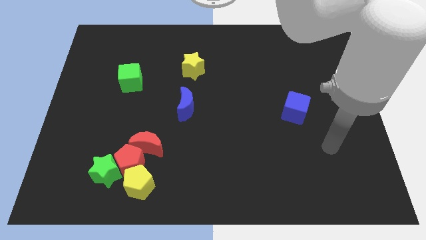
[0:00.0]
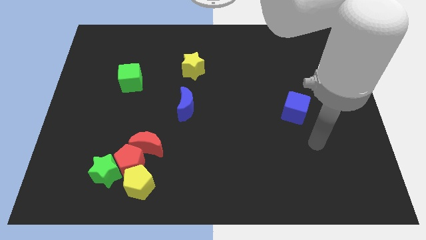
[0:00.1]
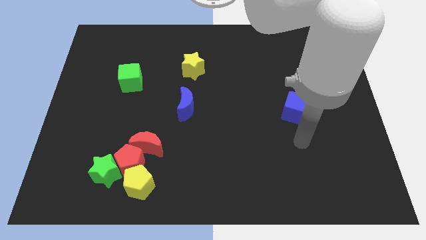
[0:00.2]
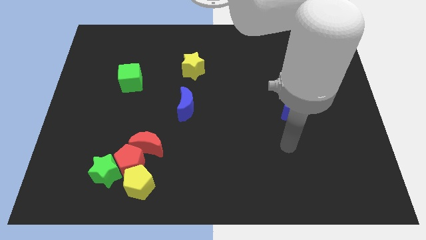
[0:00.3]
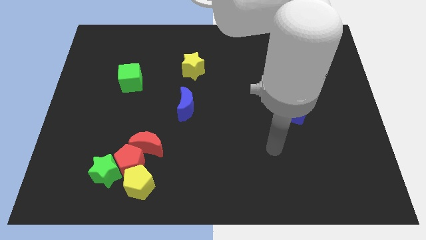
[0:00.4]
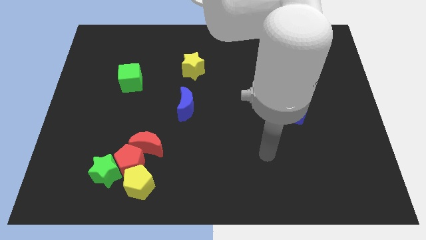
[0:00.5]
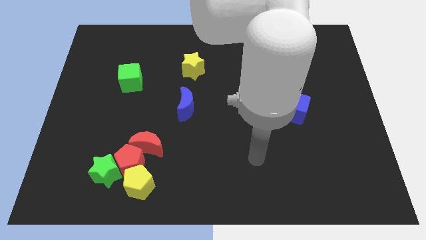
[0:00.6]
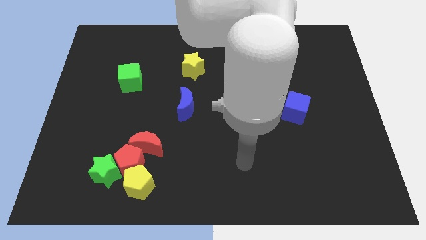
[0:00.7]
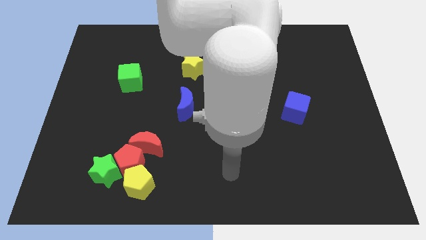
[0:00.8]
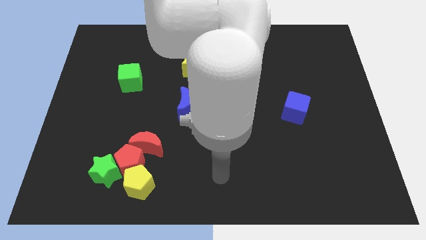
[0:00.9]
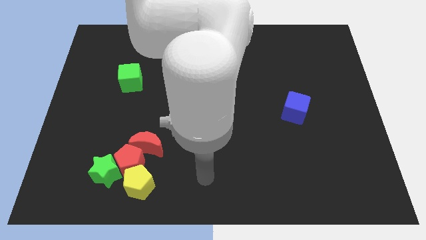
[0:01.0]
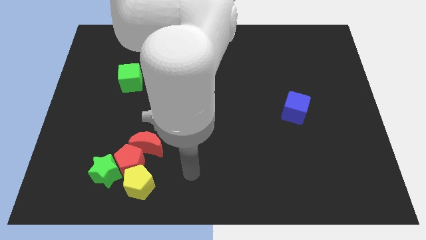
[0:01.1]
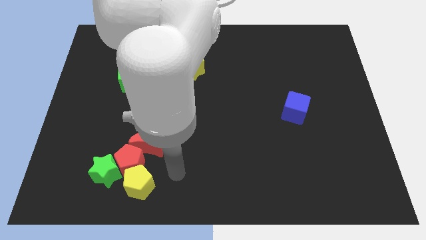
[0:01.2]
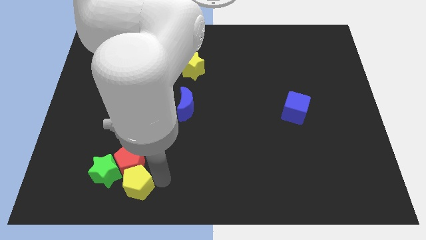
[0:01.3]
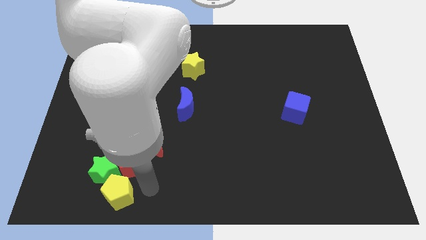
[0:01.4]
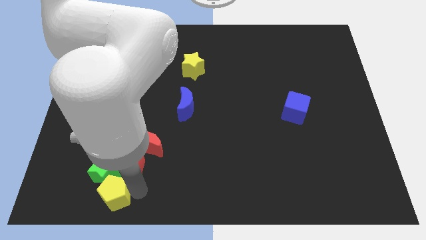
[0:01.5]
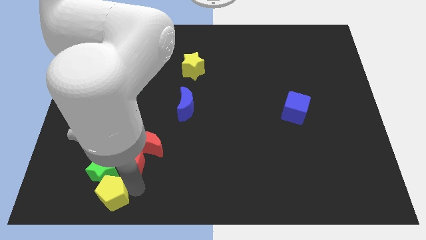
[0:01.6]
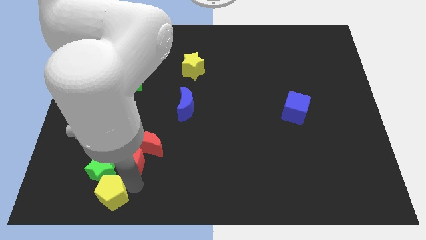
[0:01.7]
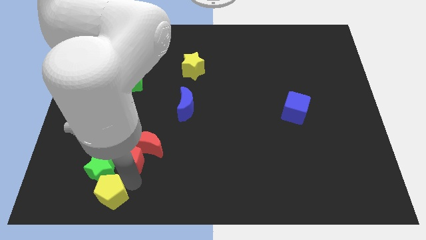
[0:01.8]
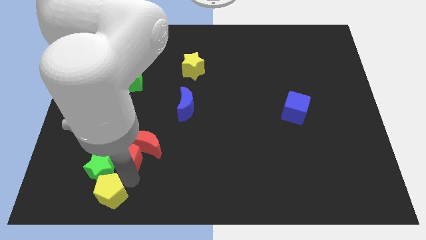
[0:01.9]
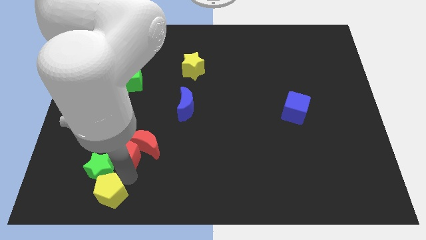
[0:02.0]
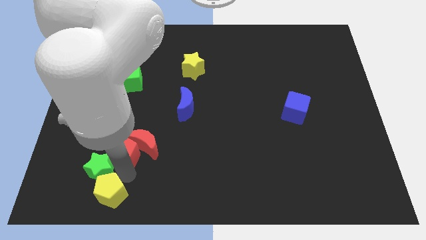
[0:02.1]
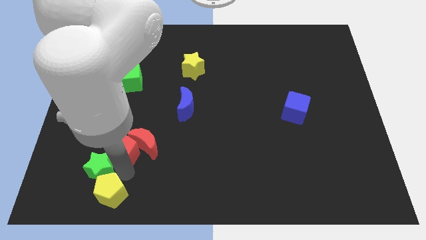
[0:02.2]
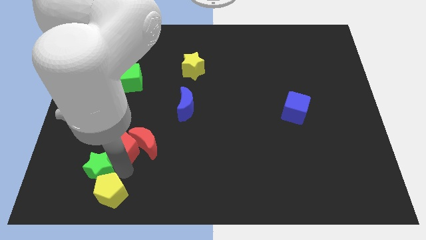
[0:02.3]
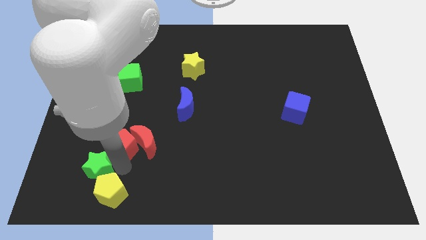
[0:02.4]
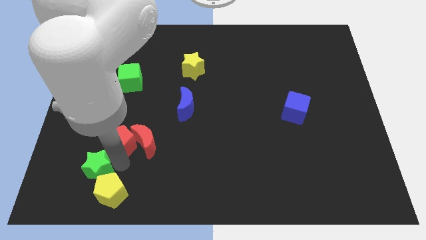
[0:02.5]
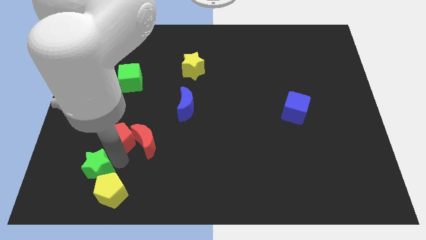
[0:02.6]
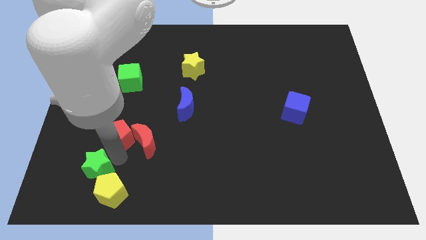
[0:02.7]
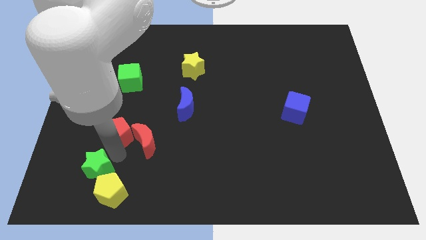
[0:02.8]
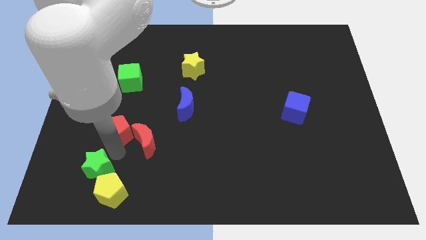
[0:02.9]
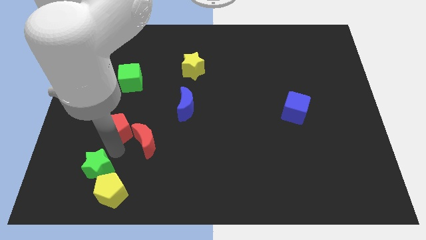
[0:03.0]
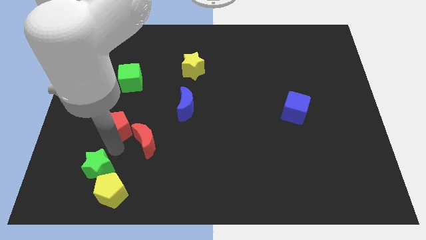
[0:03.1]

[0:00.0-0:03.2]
move the red pentagon away from the green star, red moon, and yellow pentagon

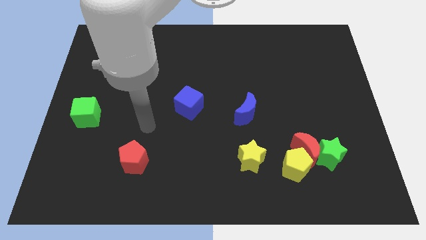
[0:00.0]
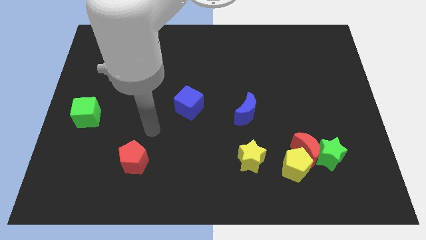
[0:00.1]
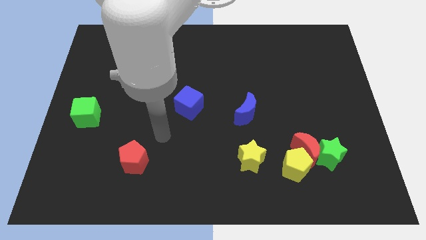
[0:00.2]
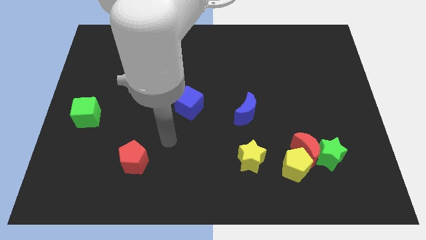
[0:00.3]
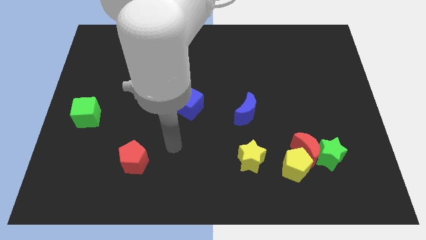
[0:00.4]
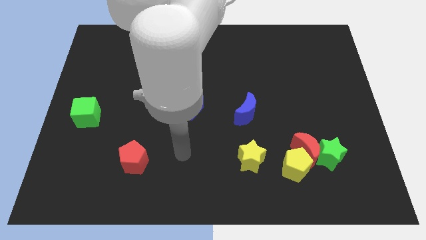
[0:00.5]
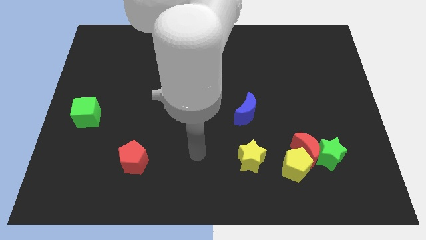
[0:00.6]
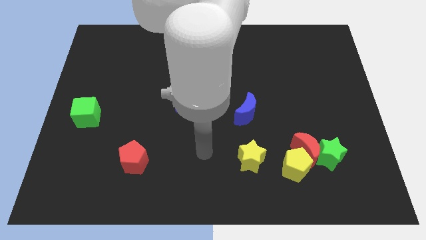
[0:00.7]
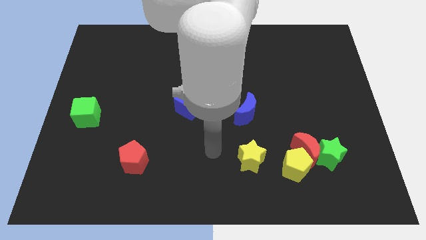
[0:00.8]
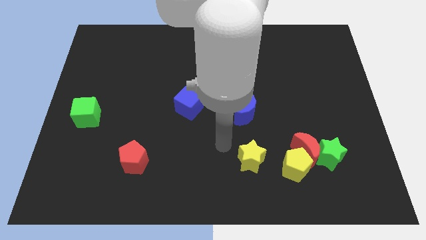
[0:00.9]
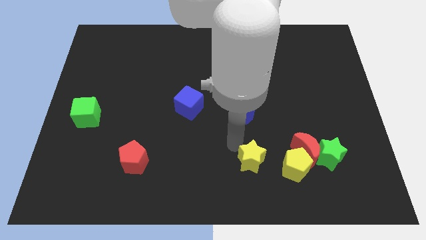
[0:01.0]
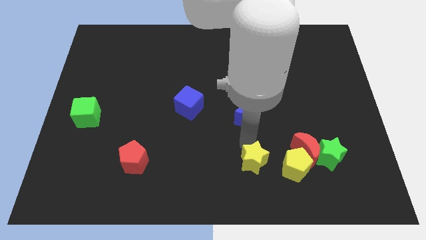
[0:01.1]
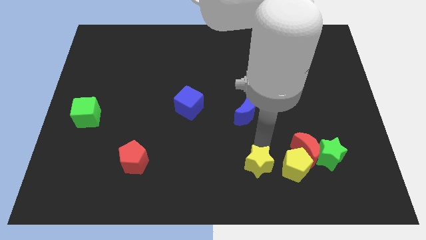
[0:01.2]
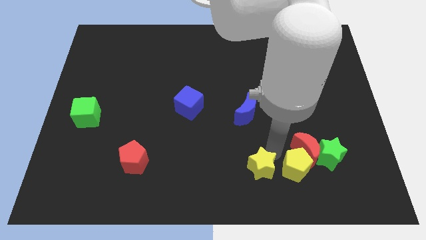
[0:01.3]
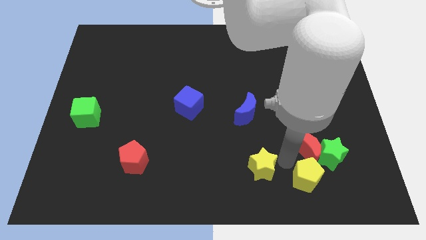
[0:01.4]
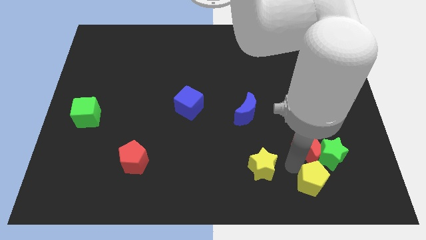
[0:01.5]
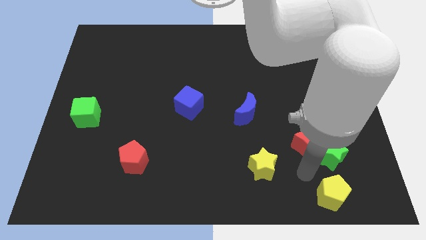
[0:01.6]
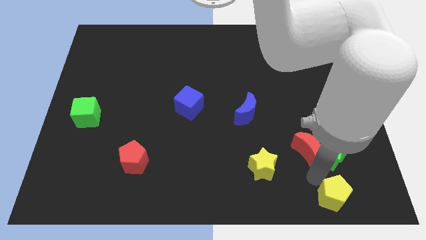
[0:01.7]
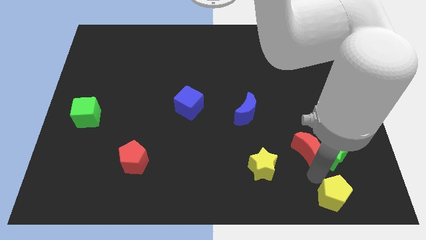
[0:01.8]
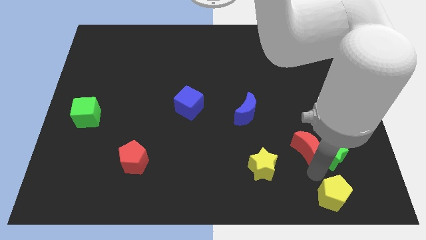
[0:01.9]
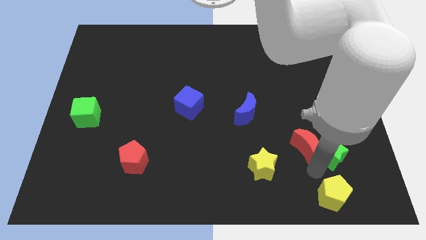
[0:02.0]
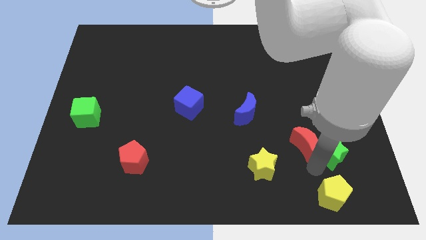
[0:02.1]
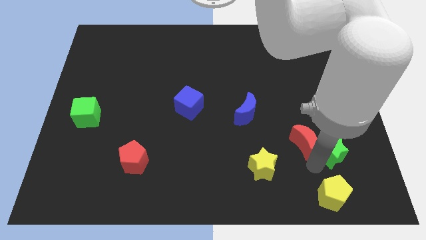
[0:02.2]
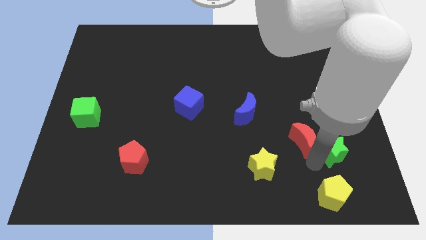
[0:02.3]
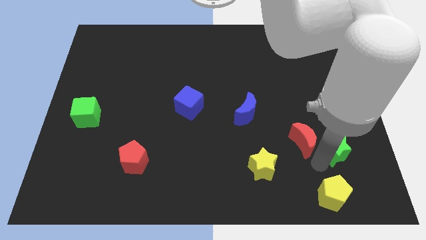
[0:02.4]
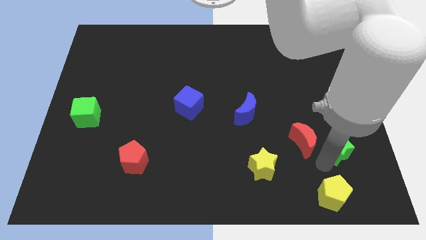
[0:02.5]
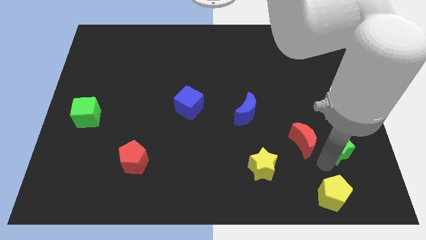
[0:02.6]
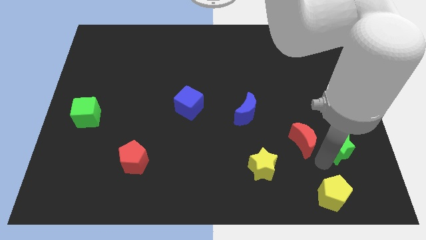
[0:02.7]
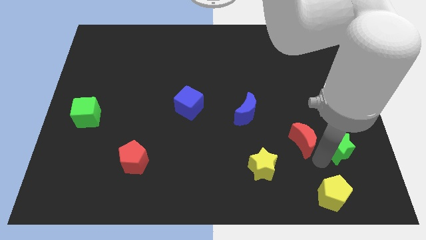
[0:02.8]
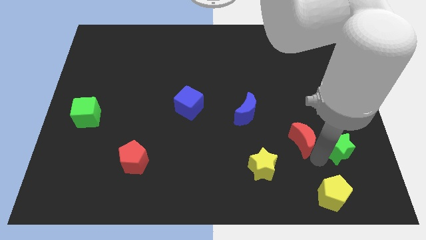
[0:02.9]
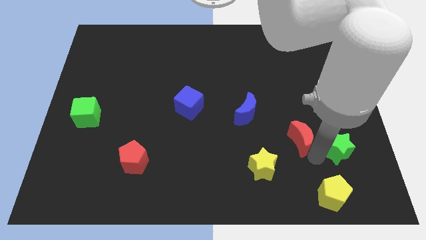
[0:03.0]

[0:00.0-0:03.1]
pull the red moon apart from the yellow pentagon and green star

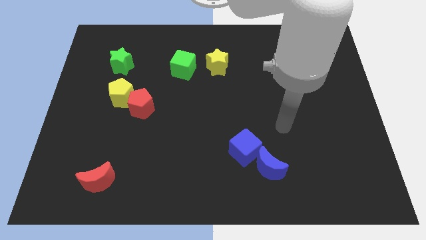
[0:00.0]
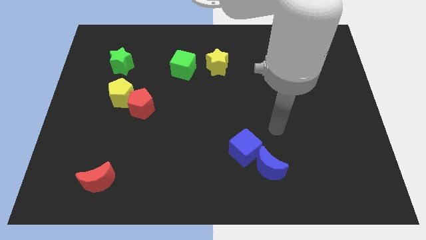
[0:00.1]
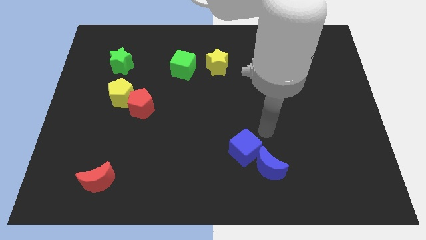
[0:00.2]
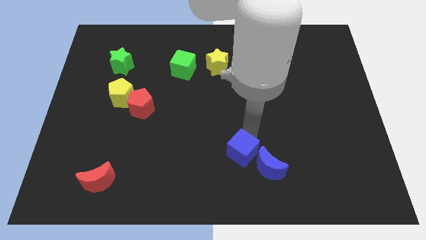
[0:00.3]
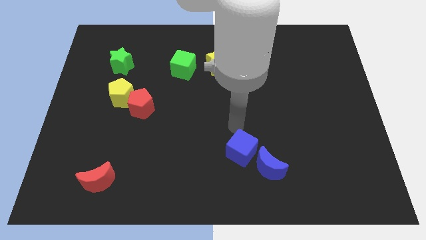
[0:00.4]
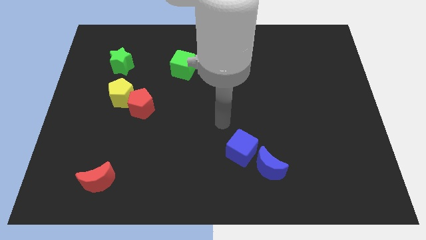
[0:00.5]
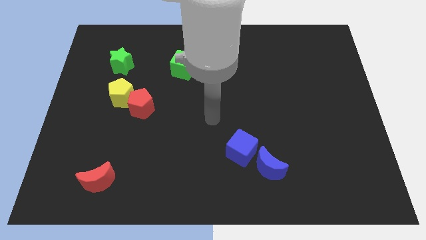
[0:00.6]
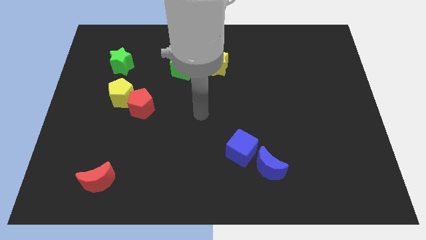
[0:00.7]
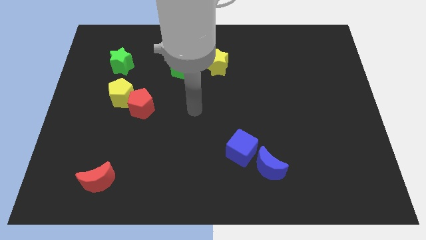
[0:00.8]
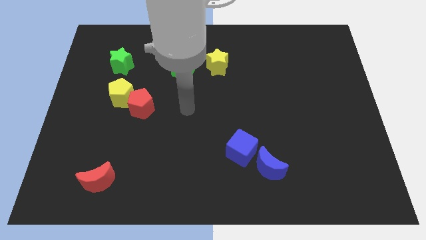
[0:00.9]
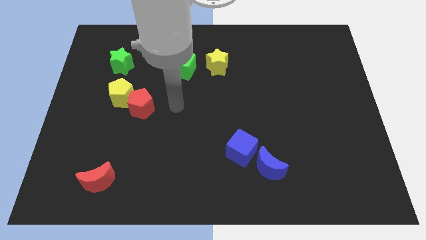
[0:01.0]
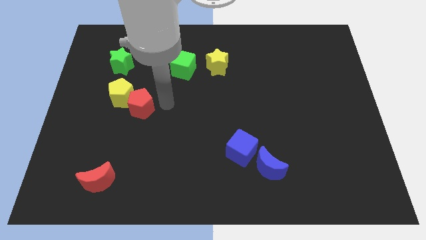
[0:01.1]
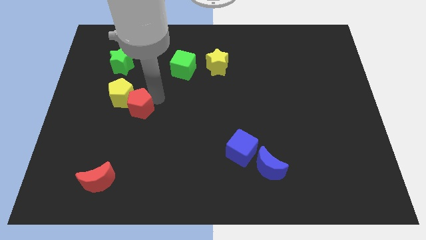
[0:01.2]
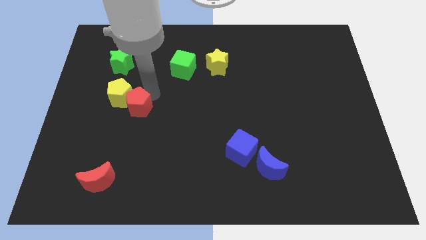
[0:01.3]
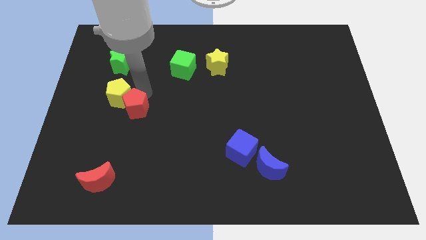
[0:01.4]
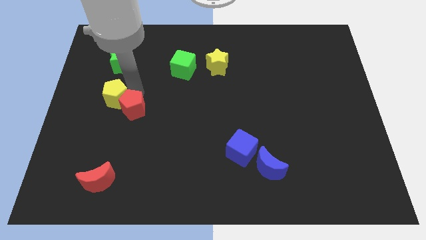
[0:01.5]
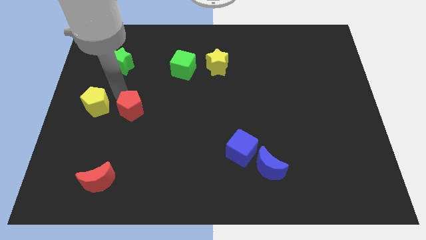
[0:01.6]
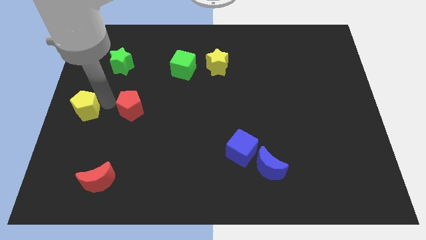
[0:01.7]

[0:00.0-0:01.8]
move the red pentagon away from the yellow pentagon

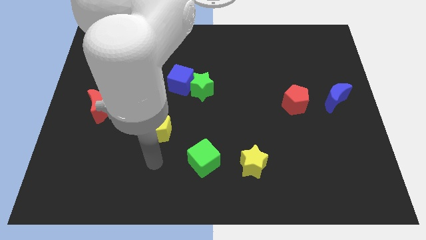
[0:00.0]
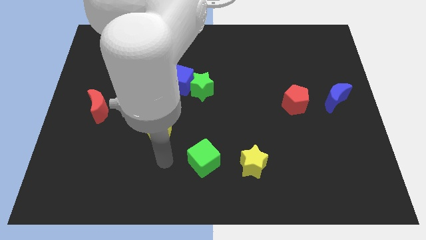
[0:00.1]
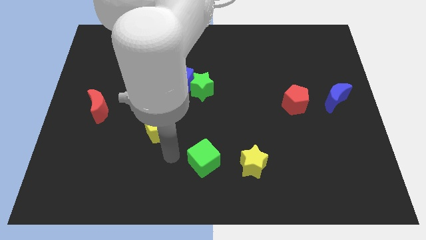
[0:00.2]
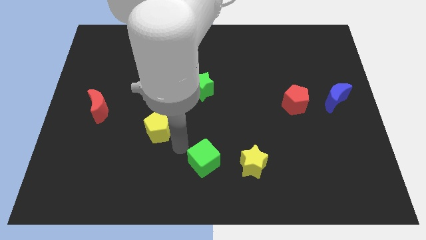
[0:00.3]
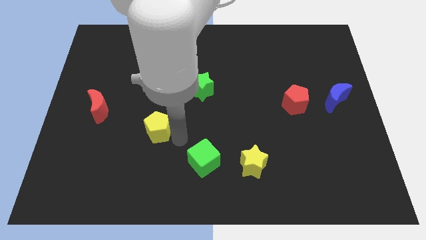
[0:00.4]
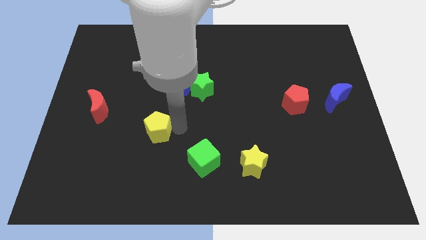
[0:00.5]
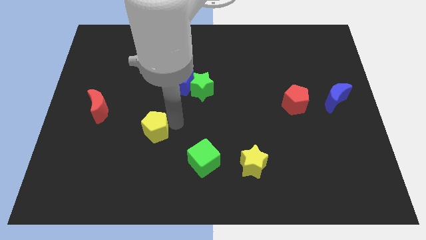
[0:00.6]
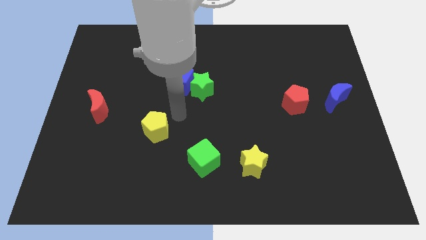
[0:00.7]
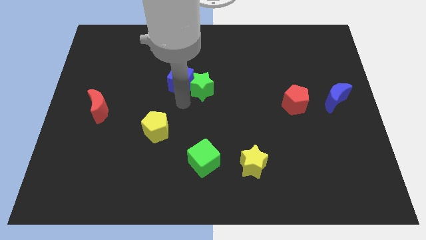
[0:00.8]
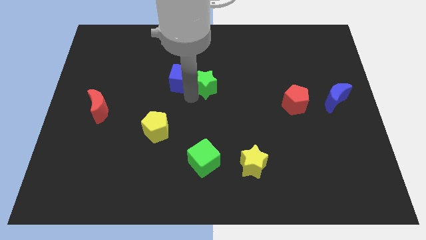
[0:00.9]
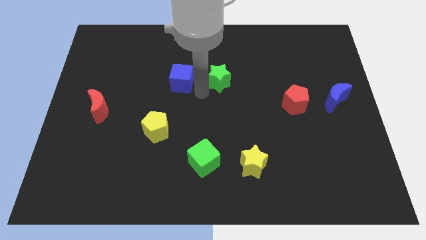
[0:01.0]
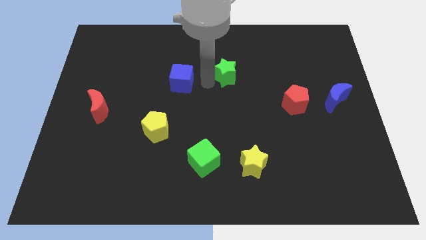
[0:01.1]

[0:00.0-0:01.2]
pull the blue cube apart from the green star

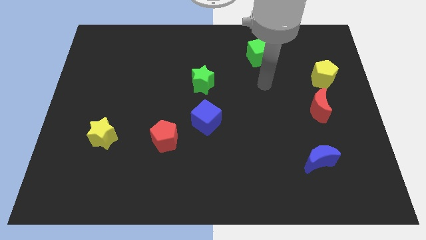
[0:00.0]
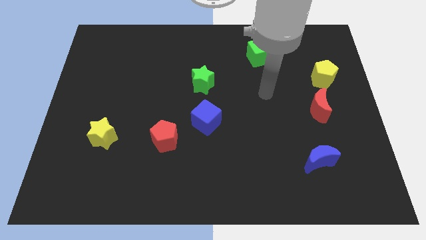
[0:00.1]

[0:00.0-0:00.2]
pull the red pentagon apart from the blue cube
